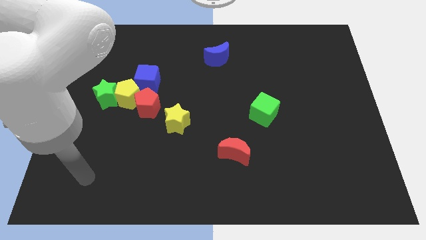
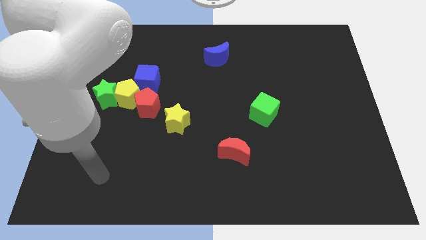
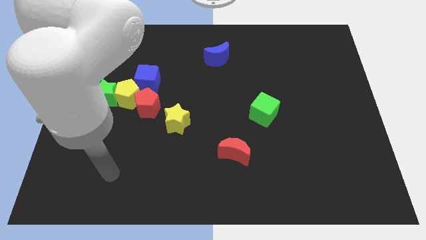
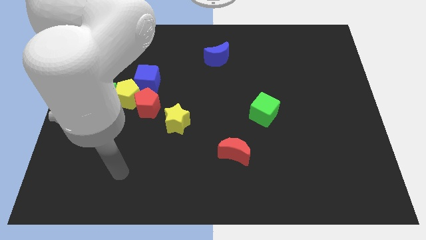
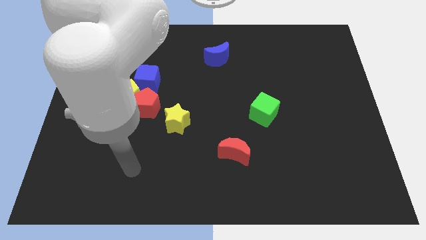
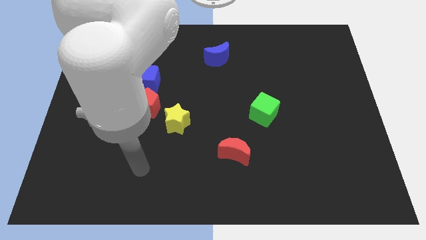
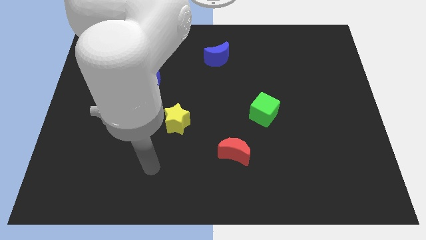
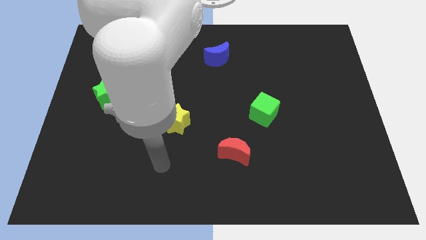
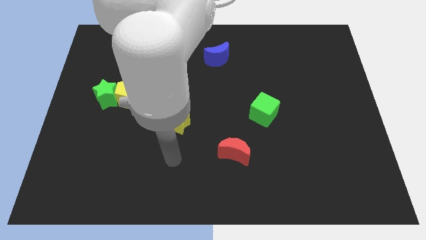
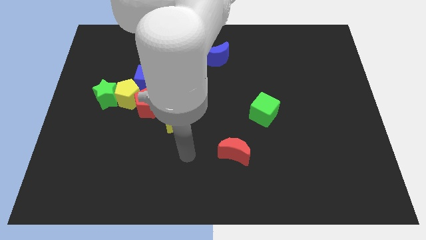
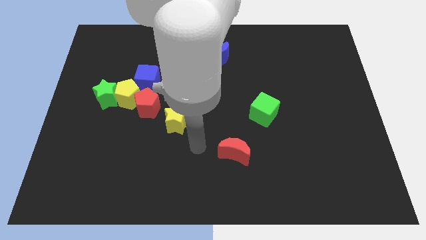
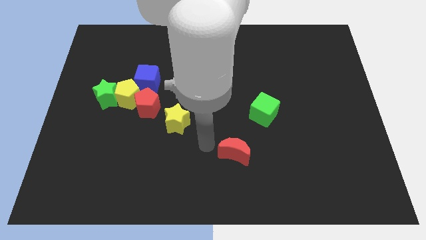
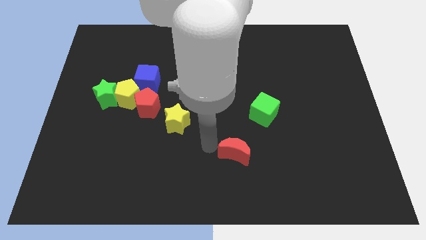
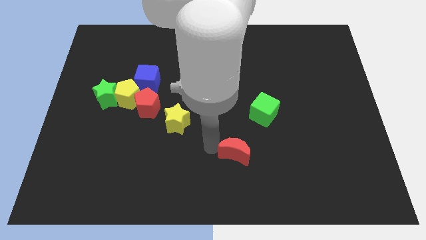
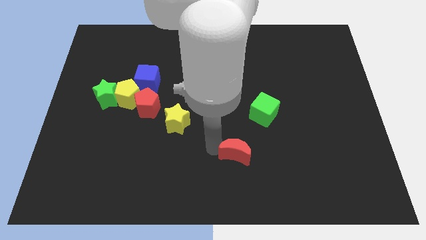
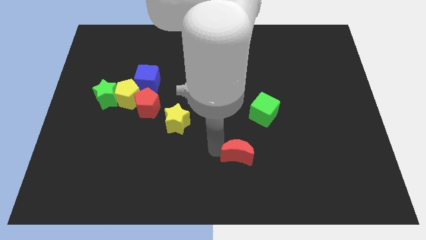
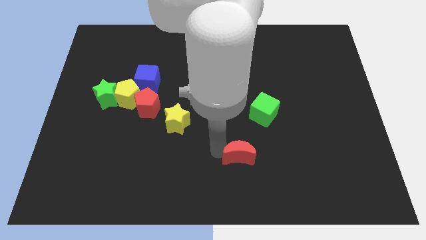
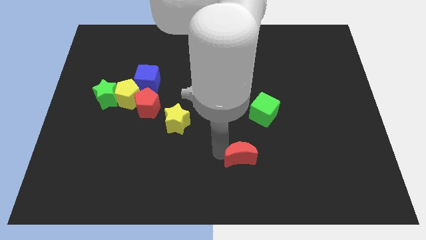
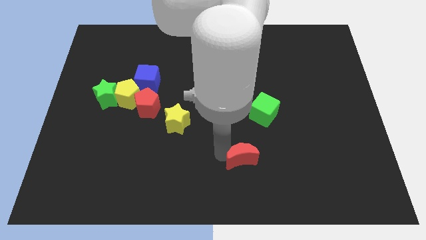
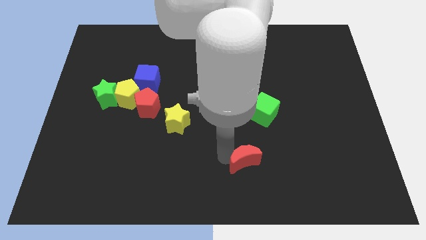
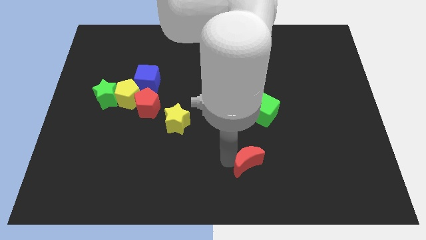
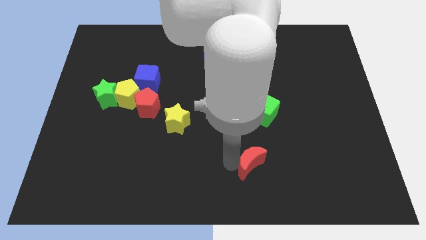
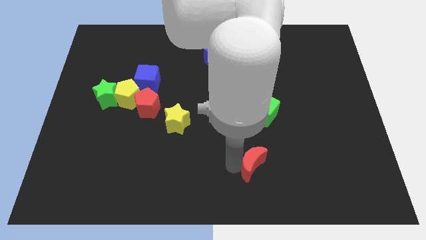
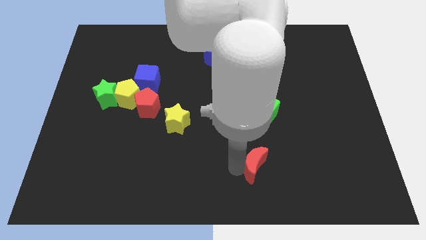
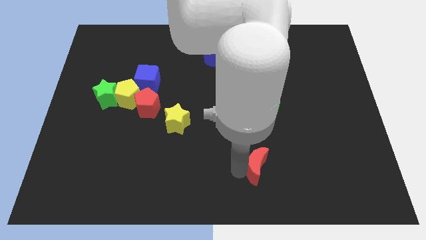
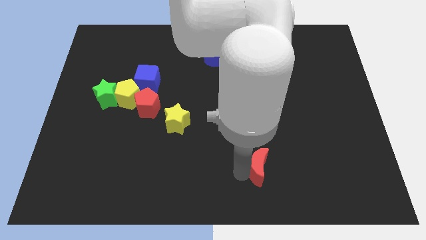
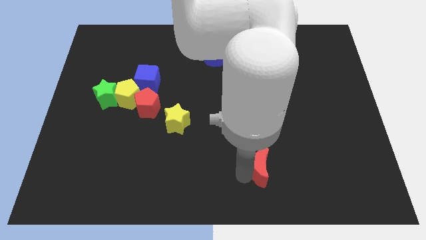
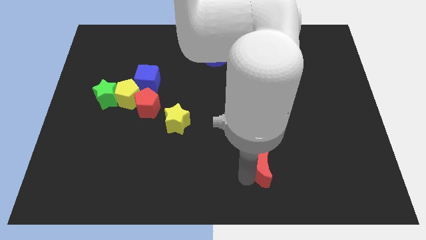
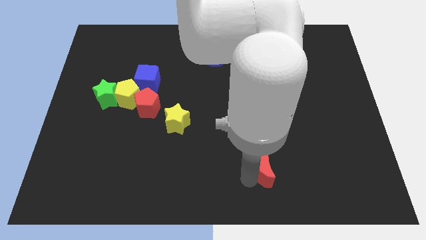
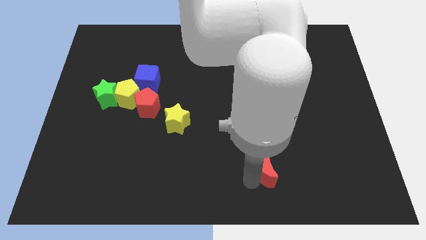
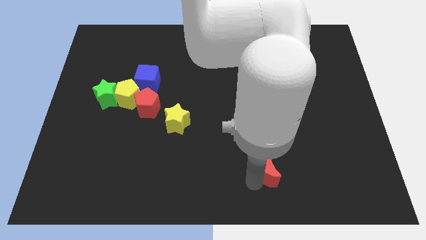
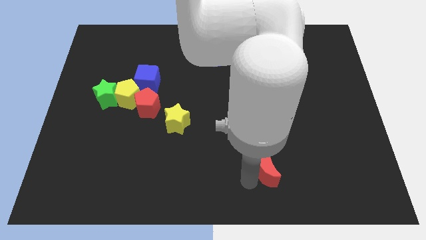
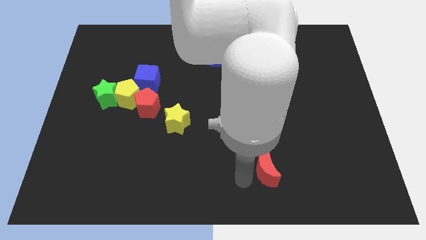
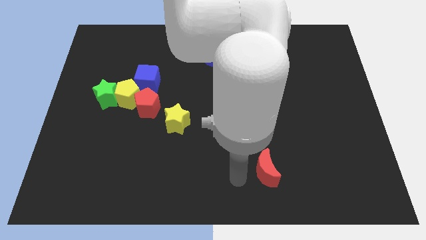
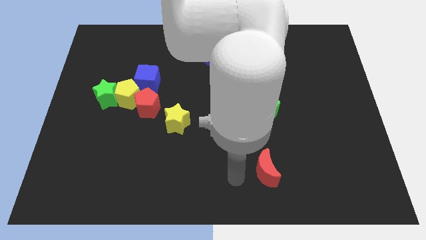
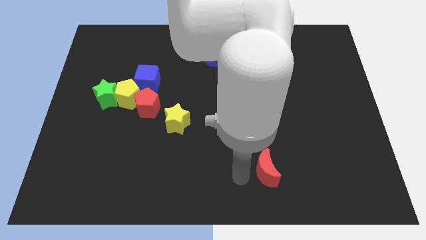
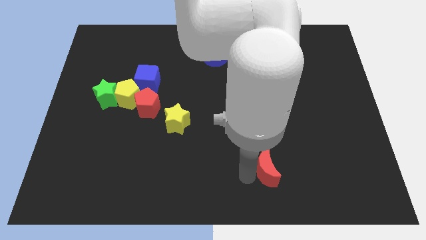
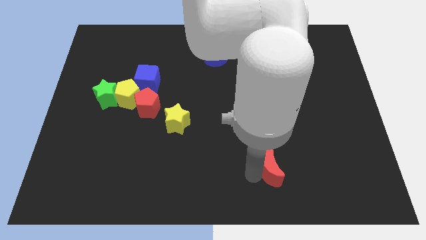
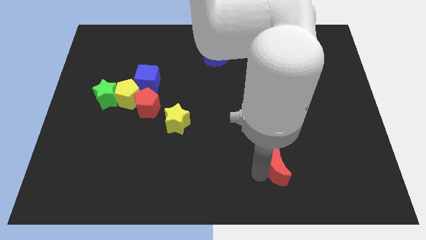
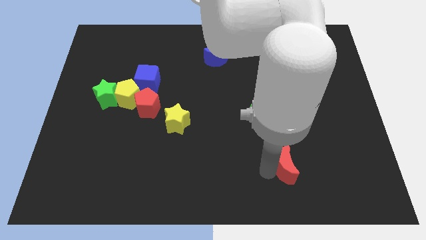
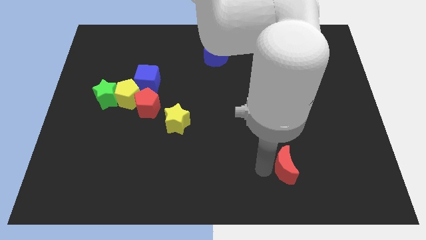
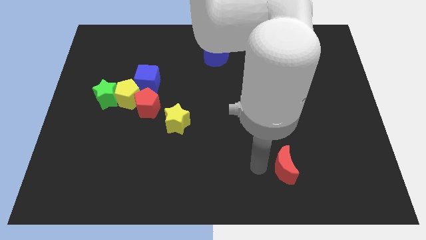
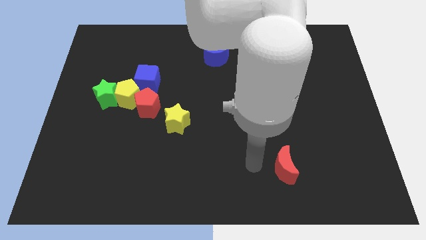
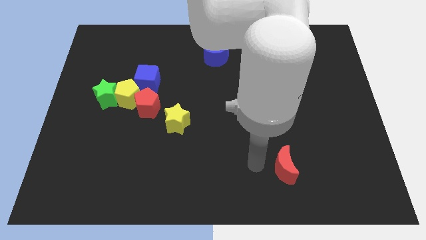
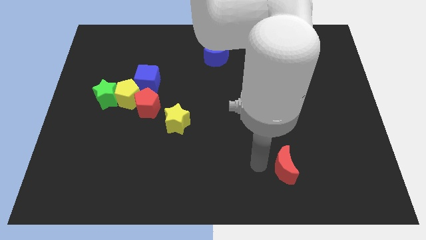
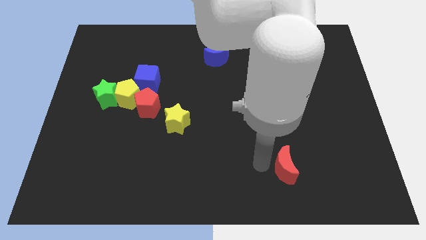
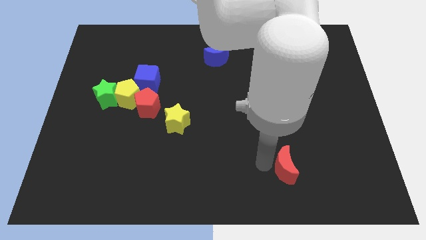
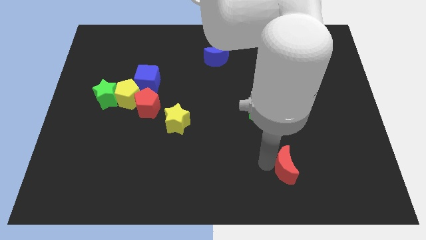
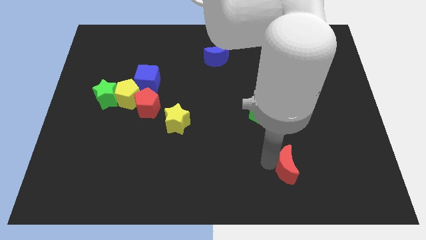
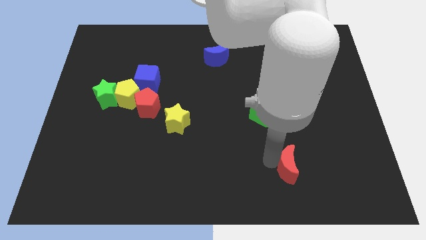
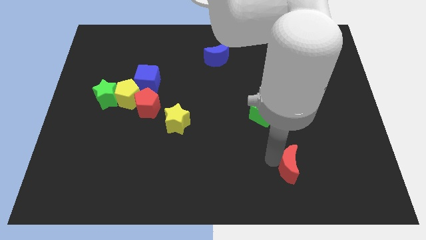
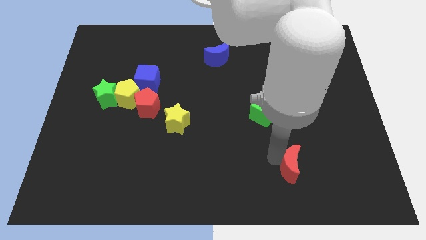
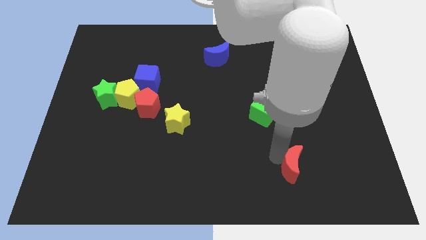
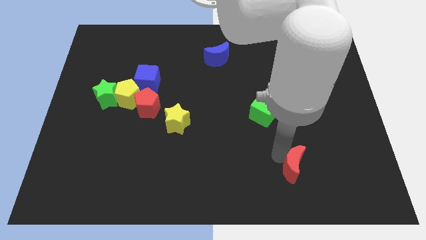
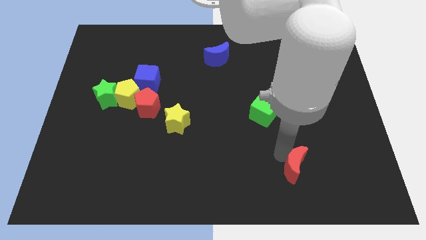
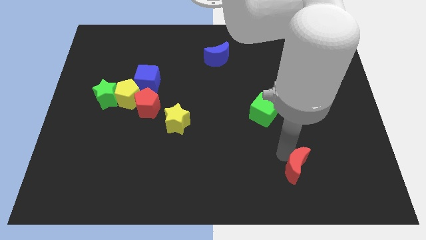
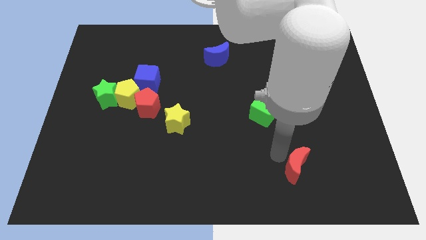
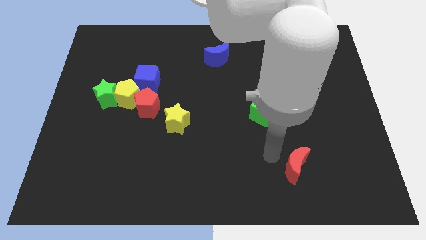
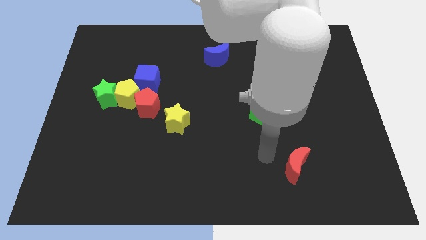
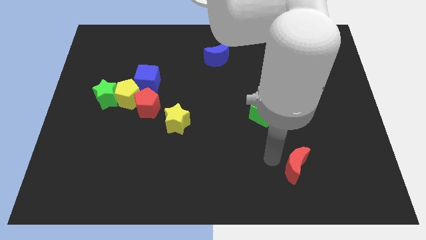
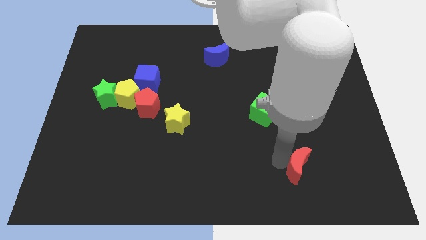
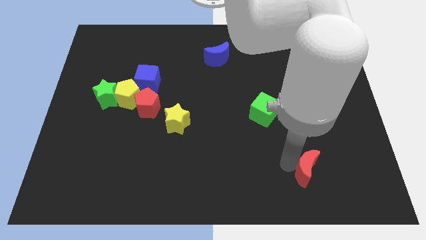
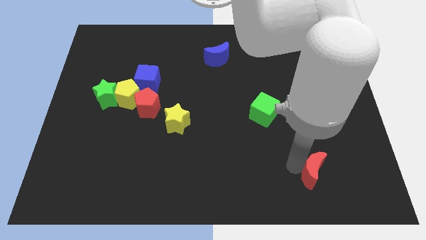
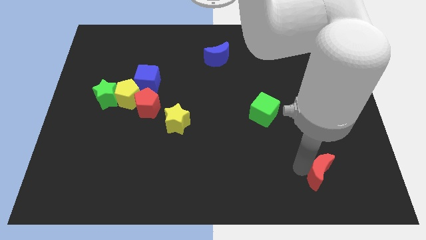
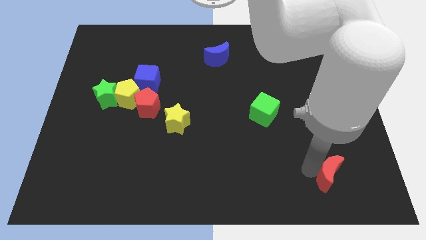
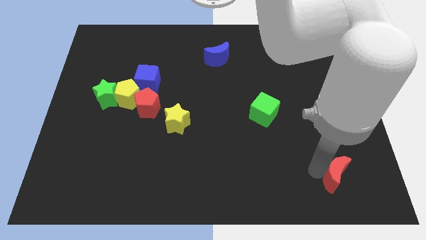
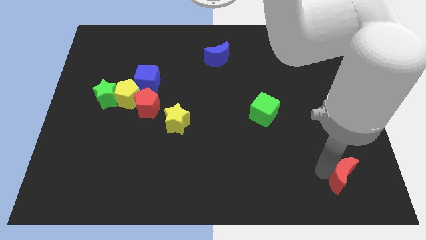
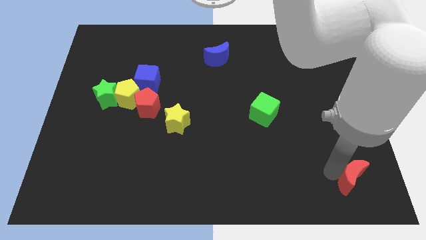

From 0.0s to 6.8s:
push the red moon to the bottom right of the board

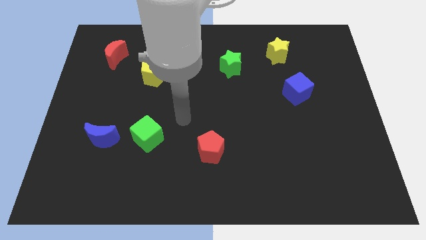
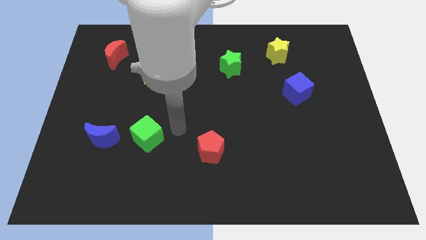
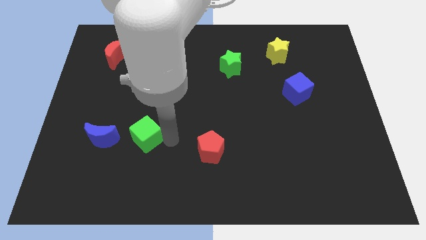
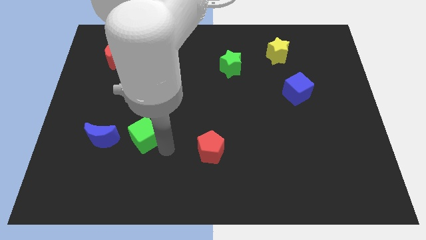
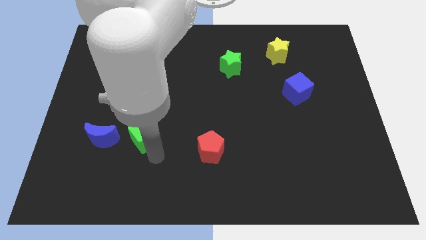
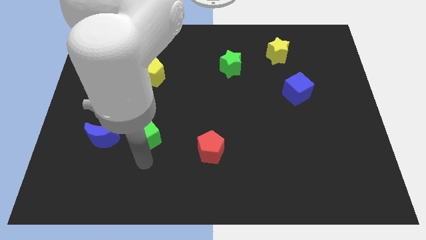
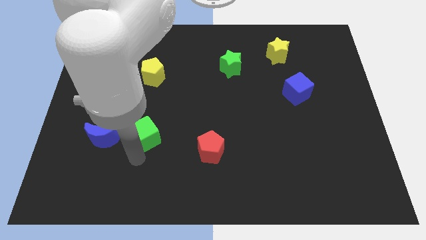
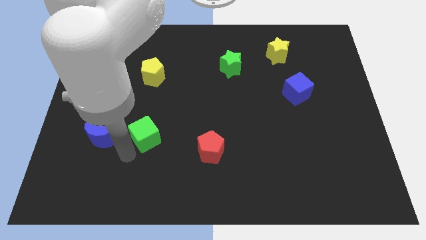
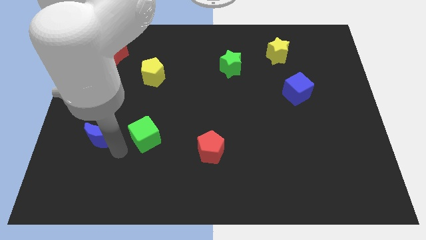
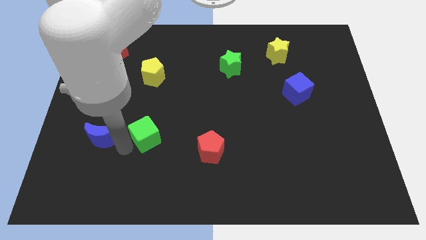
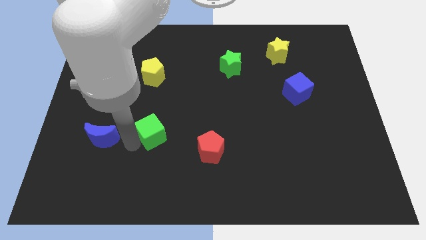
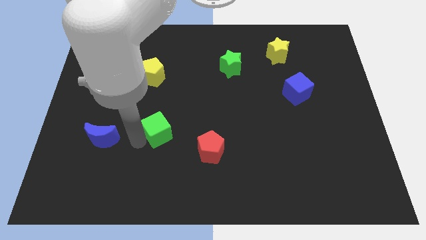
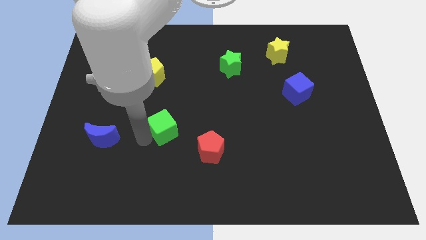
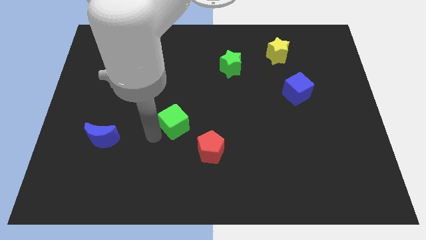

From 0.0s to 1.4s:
push the green cube to the center of the board
